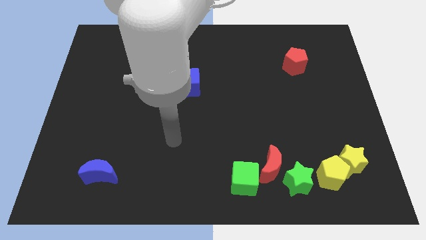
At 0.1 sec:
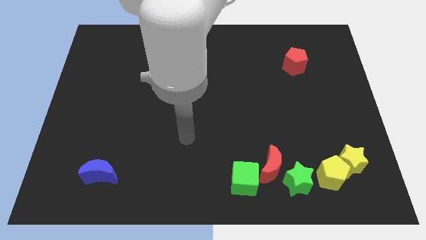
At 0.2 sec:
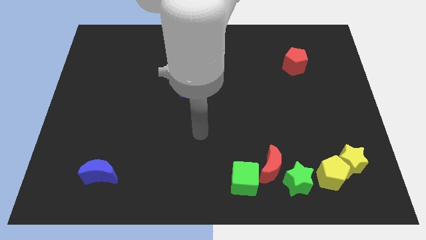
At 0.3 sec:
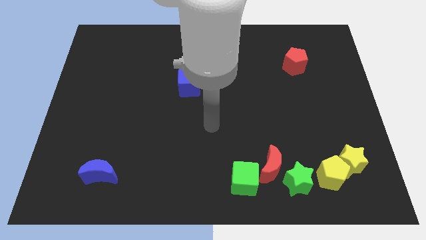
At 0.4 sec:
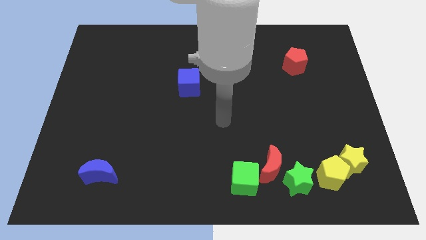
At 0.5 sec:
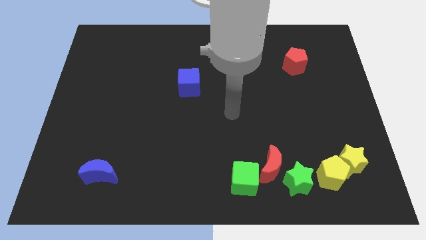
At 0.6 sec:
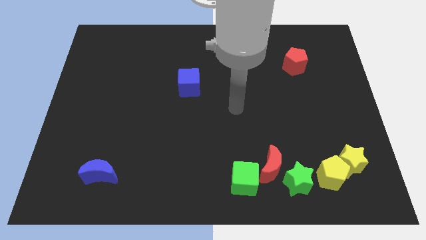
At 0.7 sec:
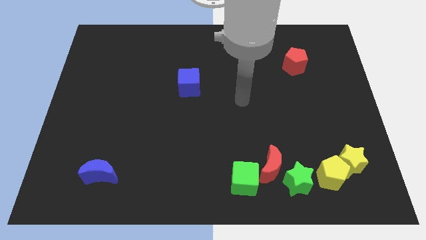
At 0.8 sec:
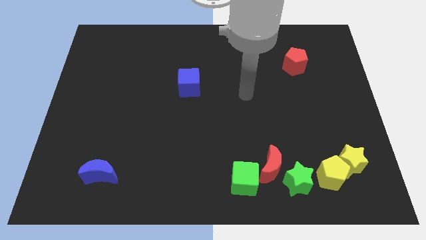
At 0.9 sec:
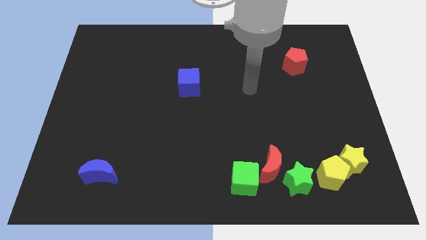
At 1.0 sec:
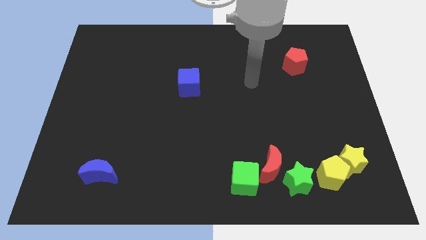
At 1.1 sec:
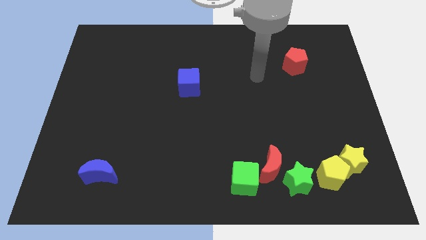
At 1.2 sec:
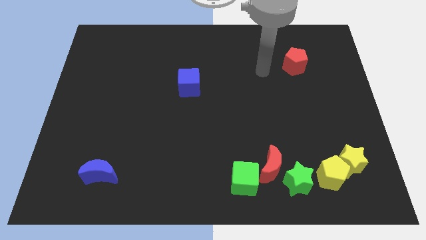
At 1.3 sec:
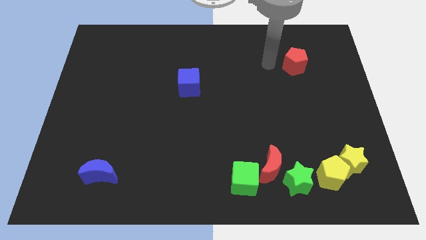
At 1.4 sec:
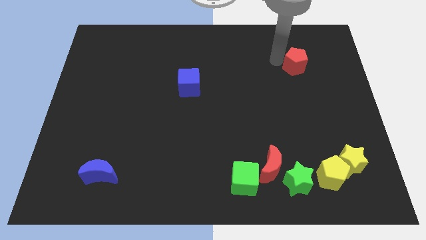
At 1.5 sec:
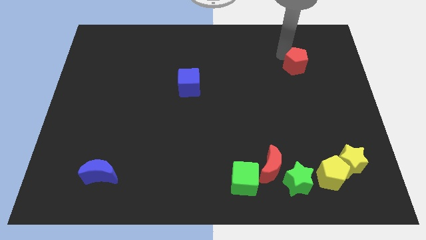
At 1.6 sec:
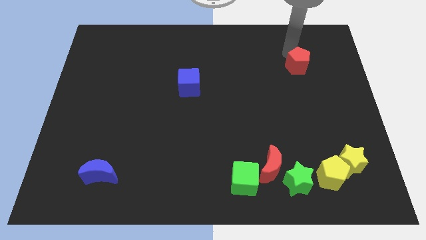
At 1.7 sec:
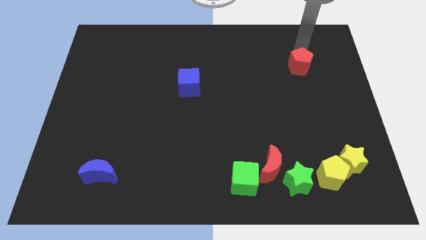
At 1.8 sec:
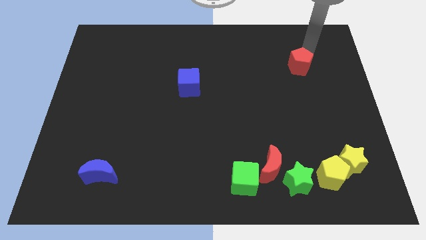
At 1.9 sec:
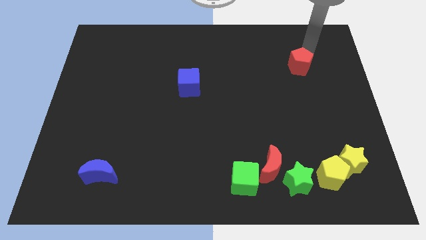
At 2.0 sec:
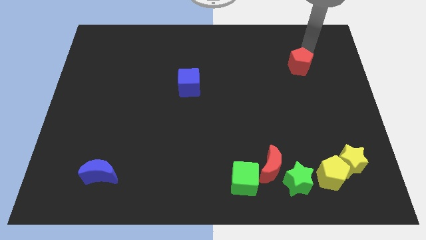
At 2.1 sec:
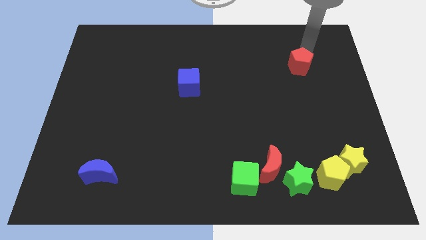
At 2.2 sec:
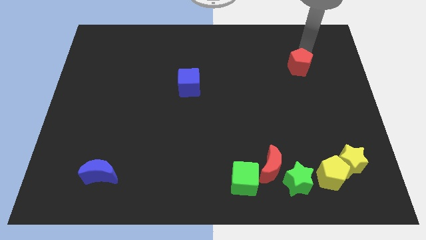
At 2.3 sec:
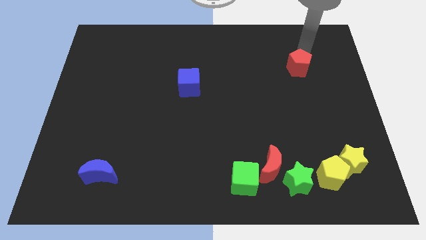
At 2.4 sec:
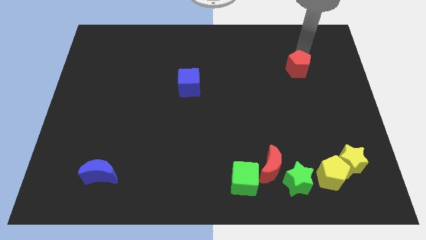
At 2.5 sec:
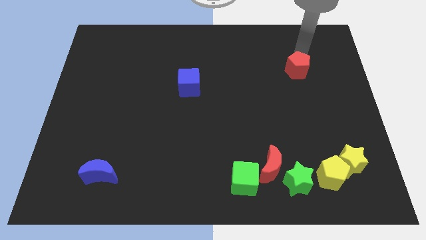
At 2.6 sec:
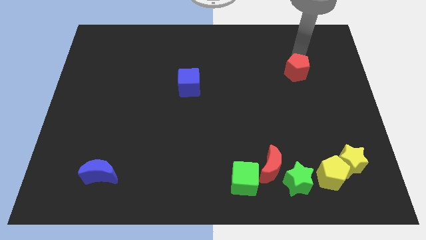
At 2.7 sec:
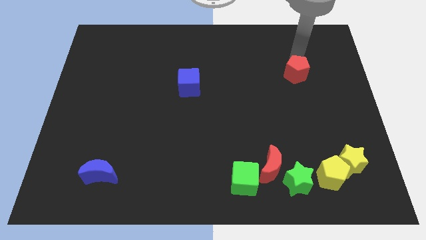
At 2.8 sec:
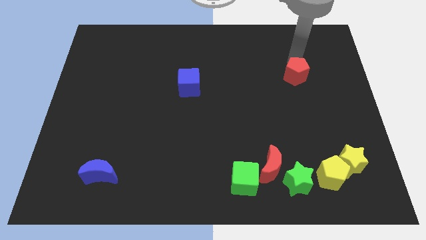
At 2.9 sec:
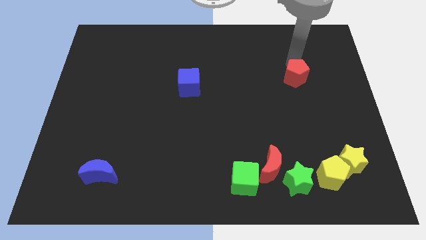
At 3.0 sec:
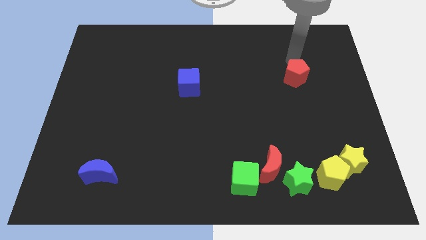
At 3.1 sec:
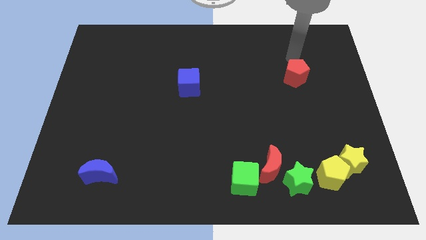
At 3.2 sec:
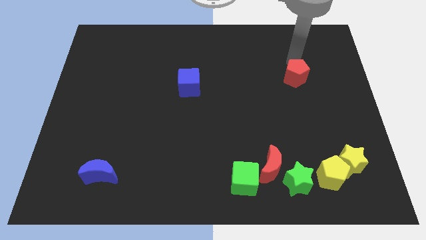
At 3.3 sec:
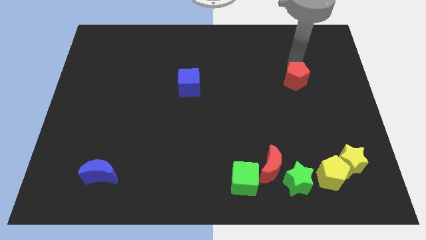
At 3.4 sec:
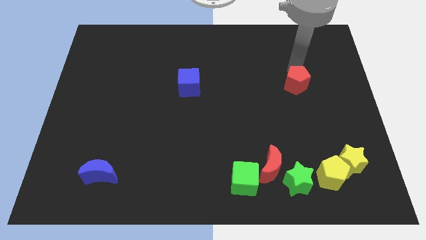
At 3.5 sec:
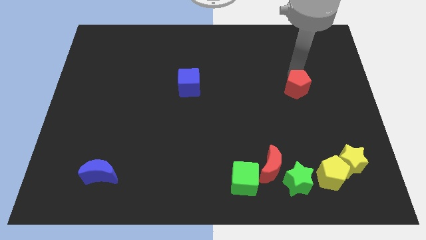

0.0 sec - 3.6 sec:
slide the red pentagon a little downwards

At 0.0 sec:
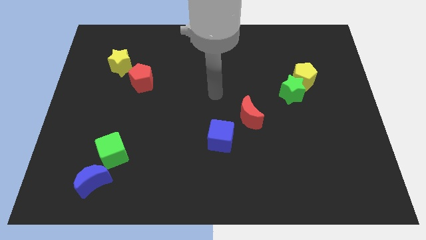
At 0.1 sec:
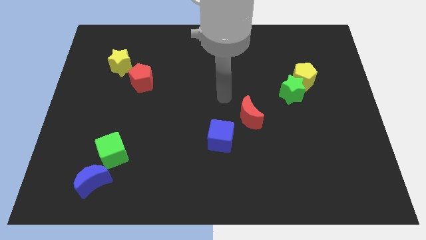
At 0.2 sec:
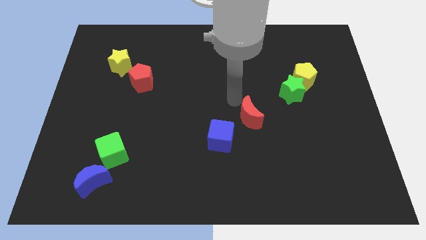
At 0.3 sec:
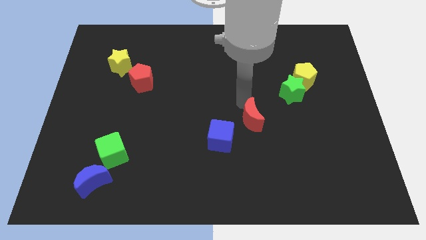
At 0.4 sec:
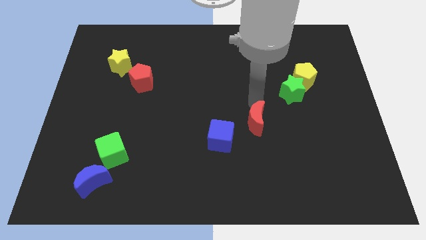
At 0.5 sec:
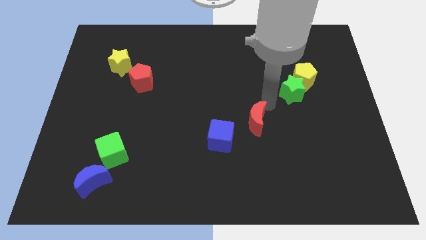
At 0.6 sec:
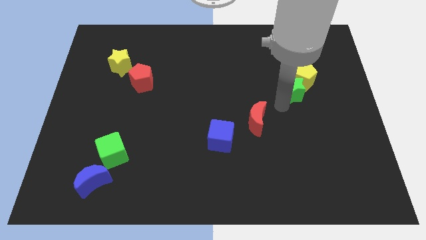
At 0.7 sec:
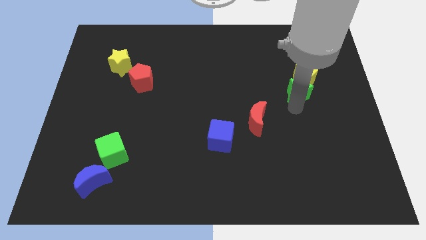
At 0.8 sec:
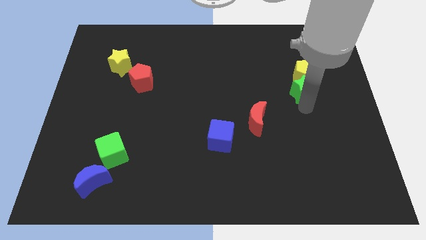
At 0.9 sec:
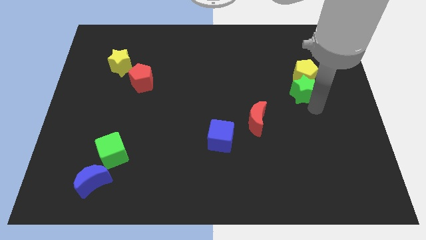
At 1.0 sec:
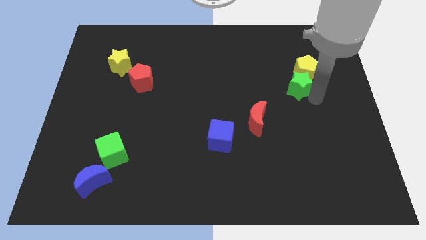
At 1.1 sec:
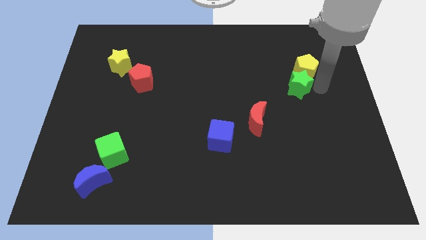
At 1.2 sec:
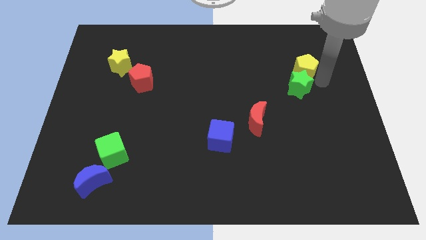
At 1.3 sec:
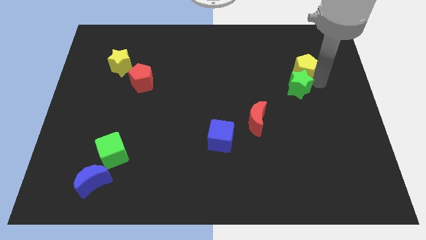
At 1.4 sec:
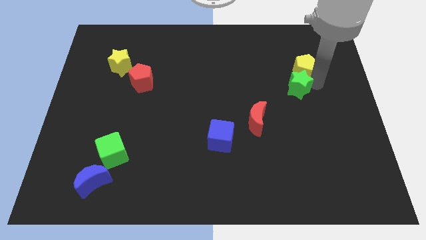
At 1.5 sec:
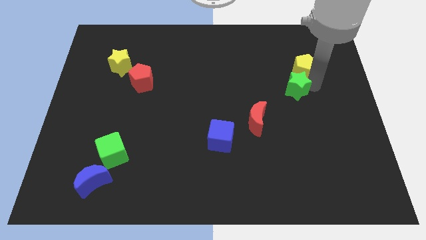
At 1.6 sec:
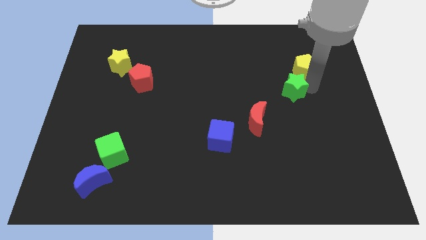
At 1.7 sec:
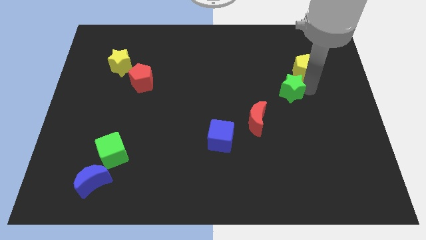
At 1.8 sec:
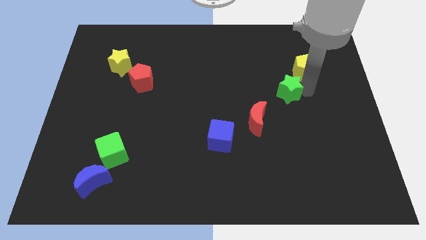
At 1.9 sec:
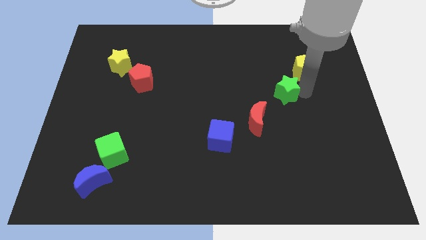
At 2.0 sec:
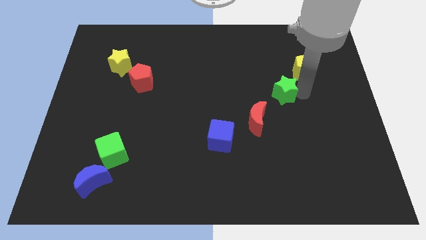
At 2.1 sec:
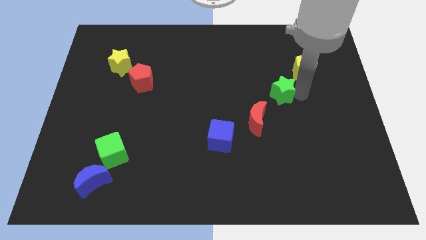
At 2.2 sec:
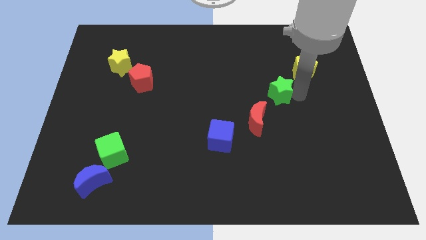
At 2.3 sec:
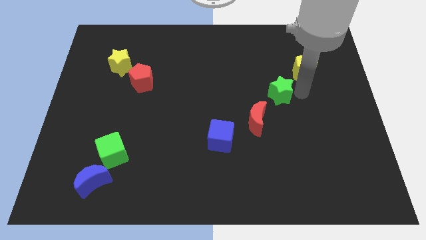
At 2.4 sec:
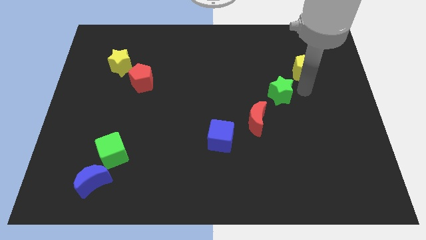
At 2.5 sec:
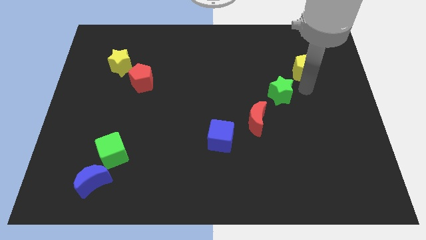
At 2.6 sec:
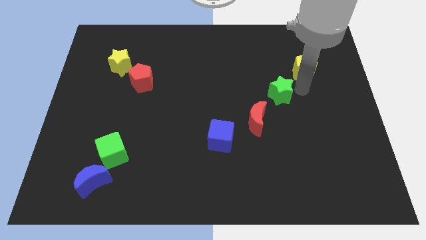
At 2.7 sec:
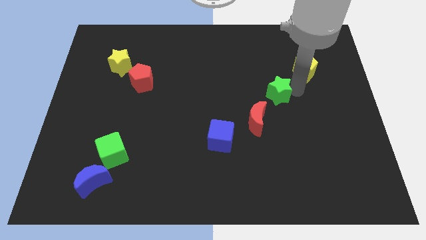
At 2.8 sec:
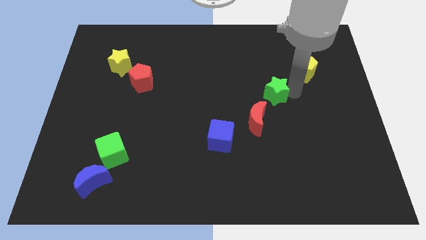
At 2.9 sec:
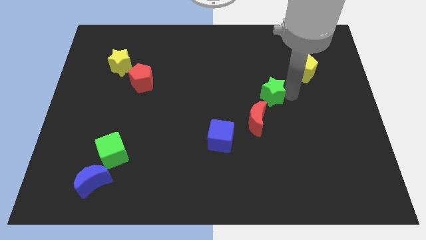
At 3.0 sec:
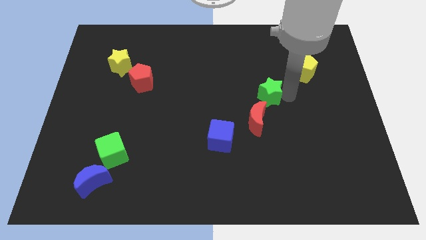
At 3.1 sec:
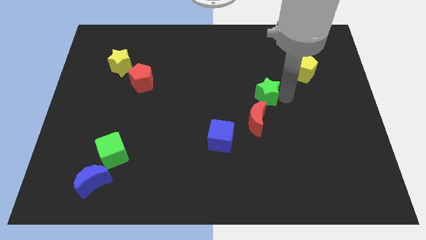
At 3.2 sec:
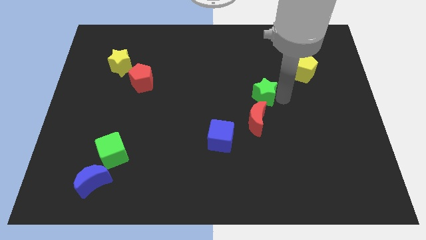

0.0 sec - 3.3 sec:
slightly slide the green star left

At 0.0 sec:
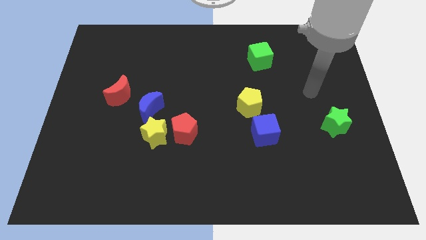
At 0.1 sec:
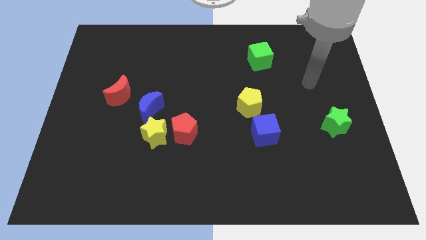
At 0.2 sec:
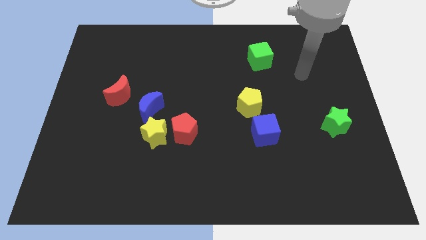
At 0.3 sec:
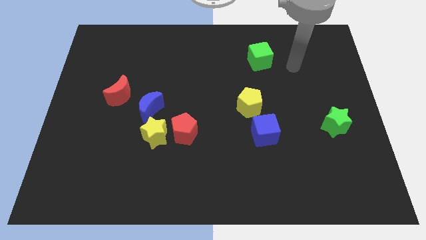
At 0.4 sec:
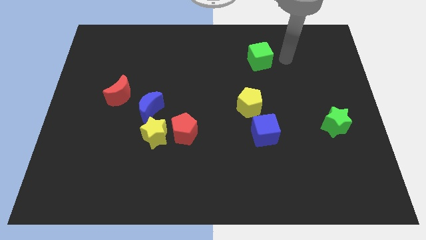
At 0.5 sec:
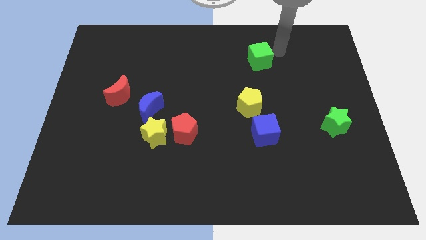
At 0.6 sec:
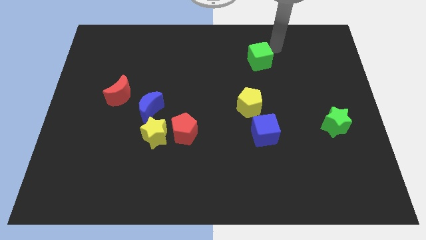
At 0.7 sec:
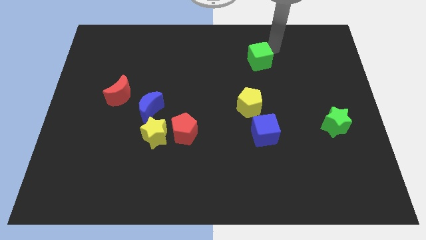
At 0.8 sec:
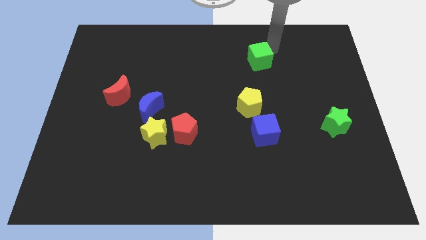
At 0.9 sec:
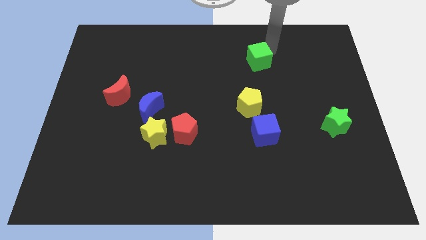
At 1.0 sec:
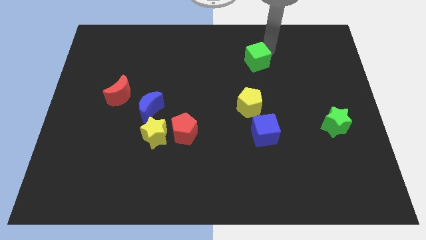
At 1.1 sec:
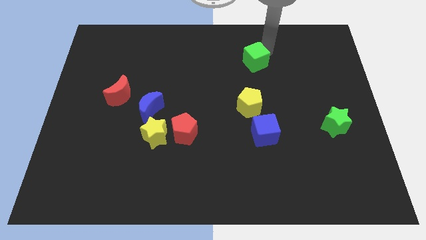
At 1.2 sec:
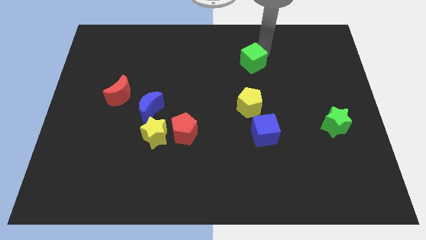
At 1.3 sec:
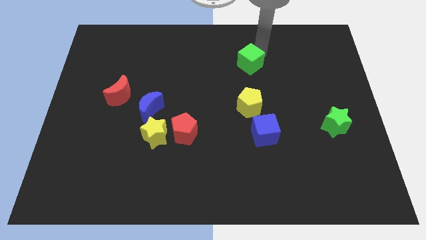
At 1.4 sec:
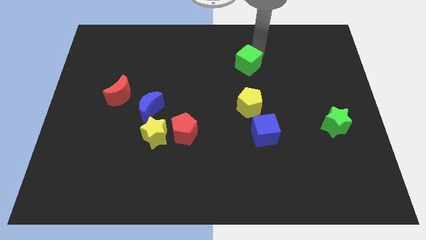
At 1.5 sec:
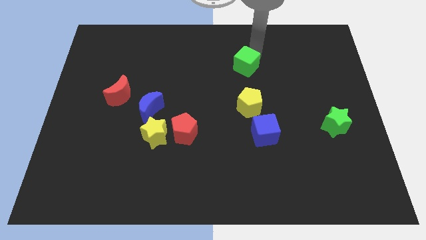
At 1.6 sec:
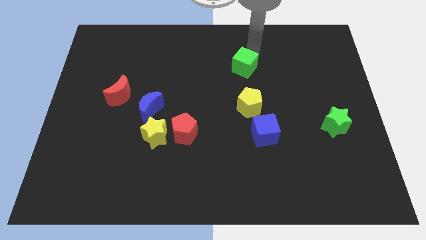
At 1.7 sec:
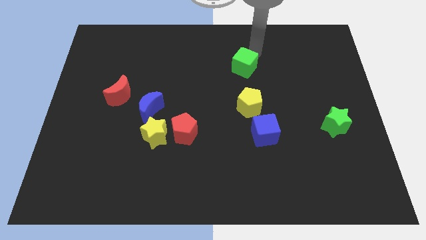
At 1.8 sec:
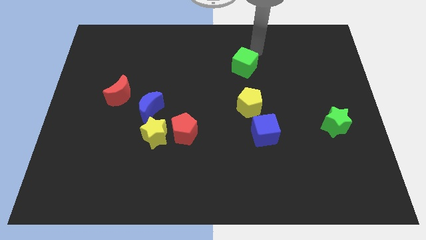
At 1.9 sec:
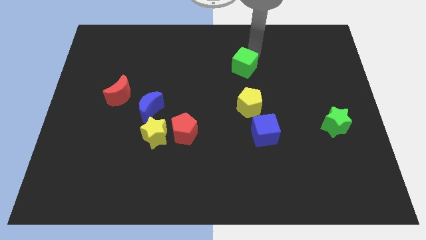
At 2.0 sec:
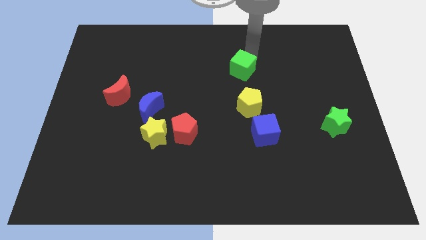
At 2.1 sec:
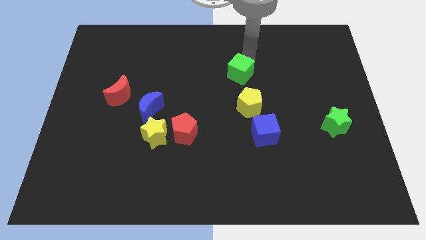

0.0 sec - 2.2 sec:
move the green cube diagonally downwards and to the left a little bit
